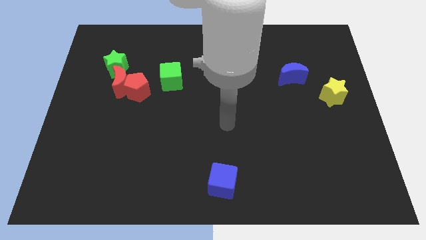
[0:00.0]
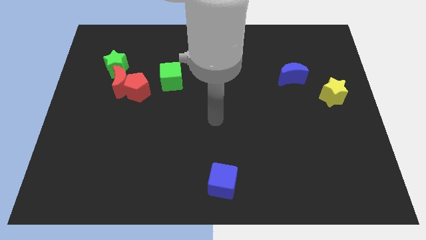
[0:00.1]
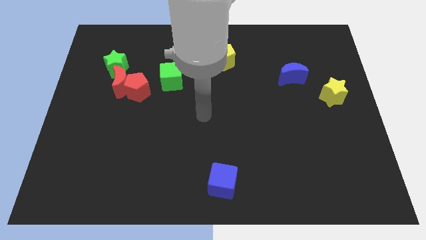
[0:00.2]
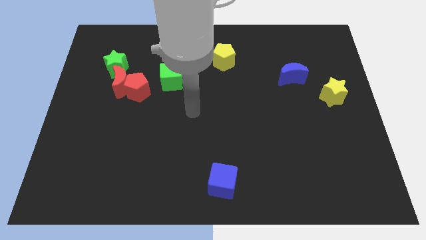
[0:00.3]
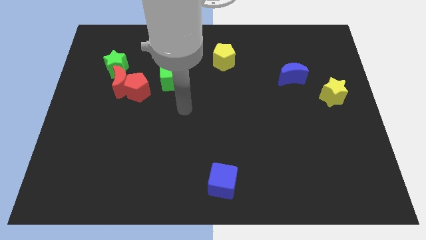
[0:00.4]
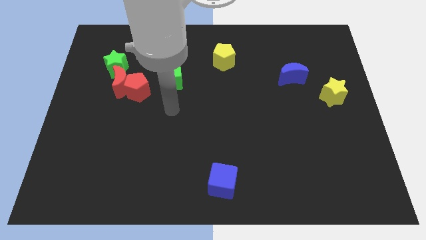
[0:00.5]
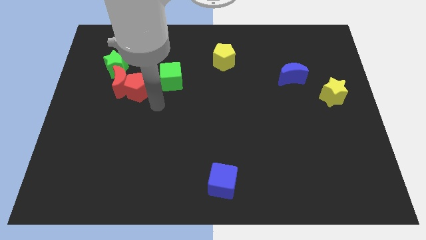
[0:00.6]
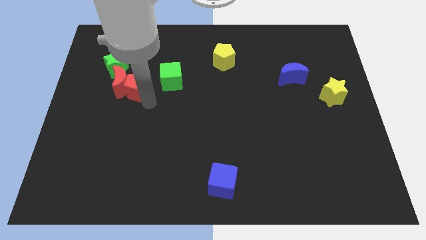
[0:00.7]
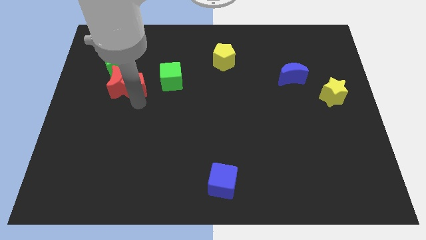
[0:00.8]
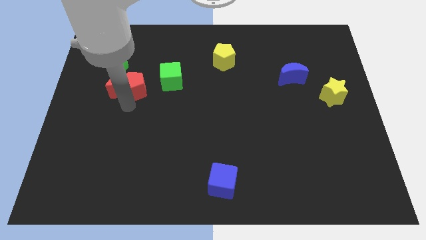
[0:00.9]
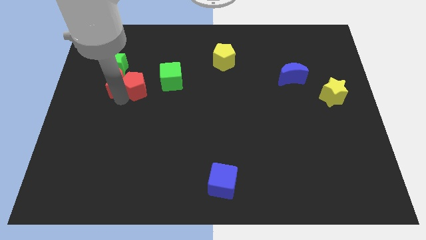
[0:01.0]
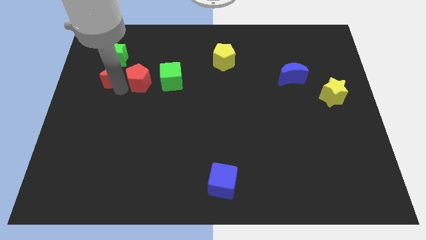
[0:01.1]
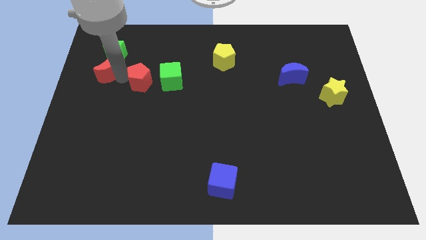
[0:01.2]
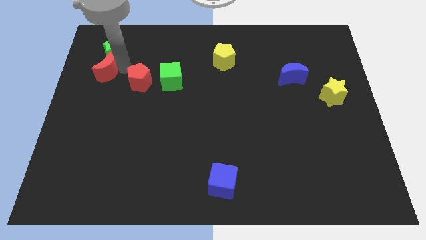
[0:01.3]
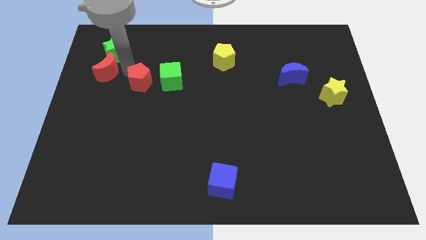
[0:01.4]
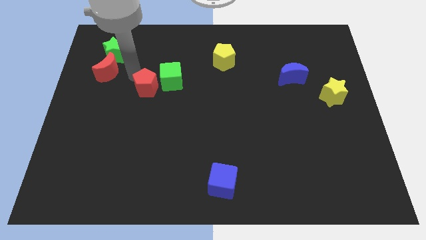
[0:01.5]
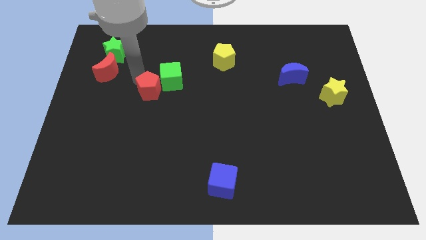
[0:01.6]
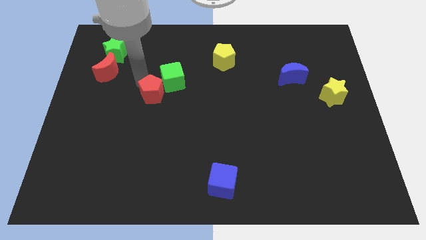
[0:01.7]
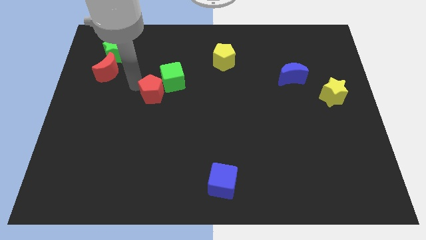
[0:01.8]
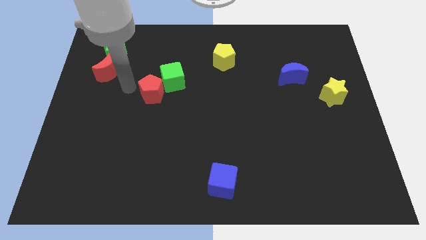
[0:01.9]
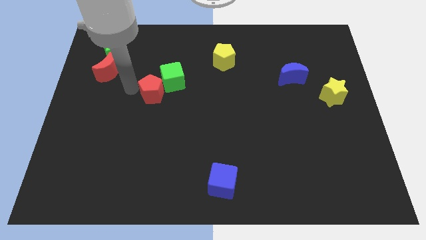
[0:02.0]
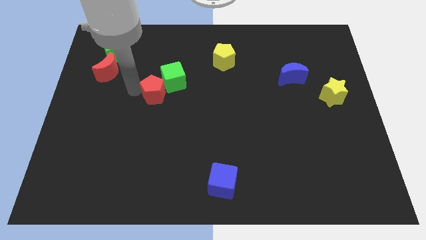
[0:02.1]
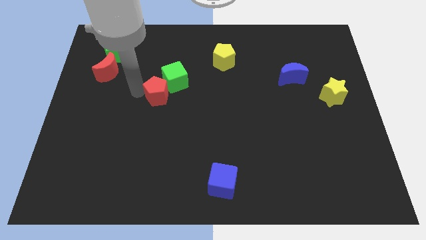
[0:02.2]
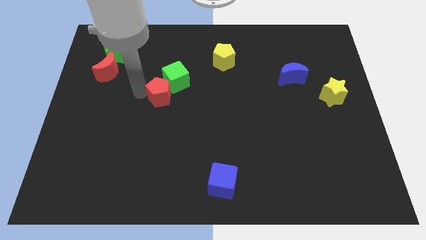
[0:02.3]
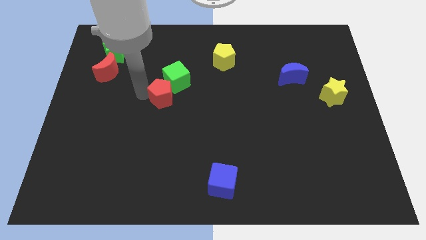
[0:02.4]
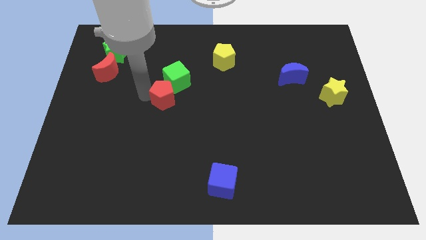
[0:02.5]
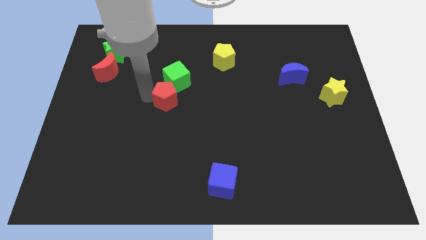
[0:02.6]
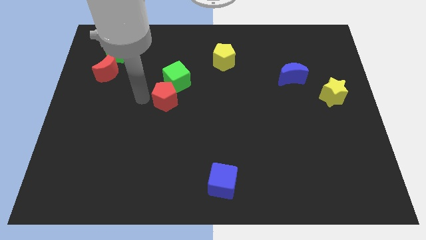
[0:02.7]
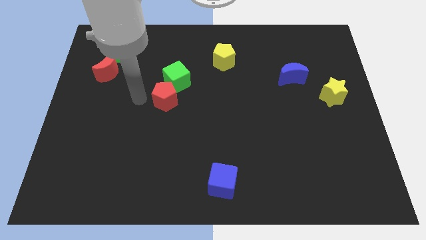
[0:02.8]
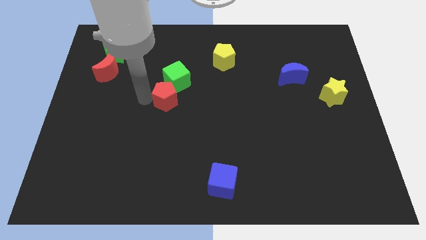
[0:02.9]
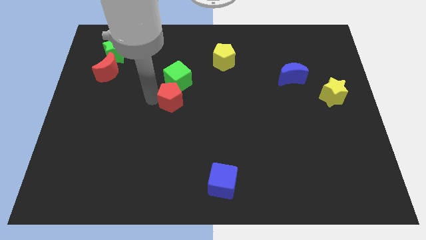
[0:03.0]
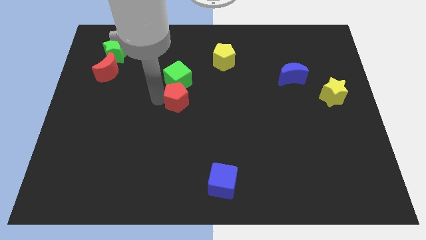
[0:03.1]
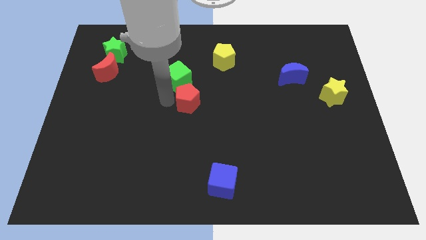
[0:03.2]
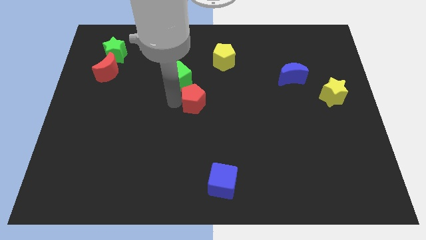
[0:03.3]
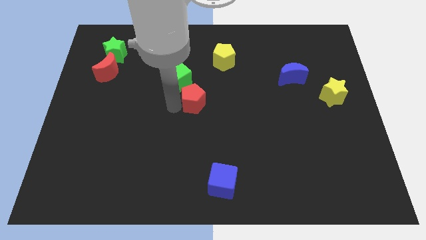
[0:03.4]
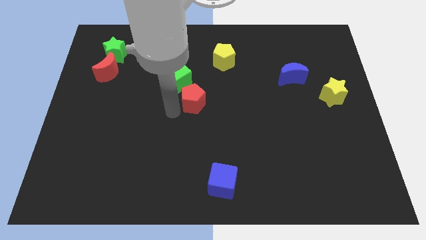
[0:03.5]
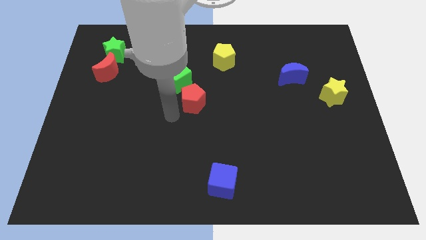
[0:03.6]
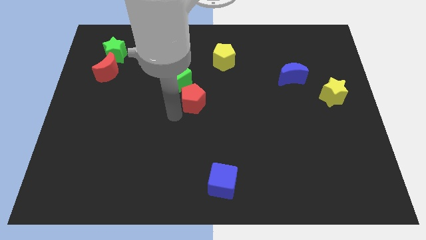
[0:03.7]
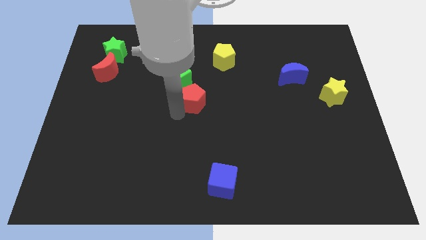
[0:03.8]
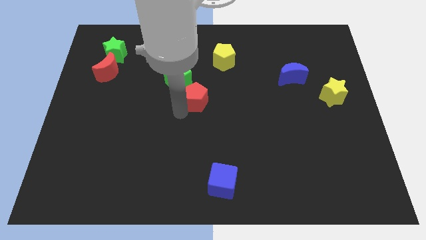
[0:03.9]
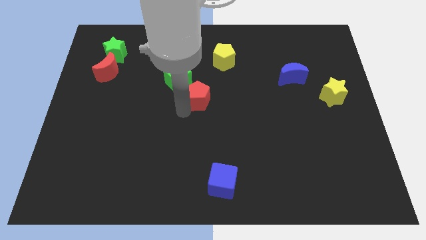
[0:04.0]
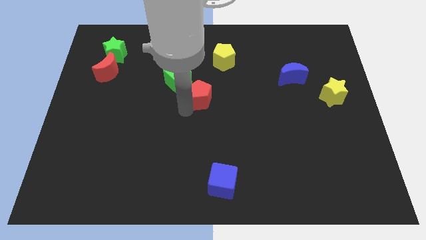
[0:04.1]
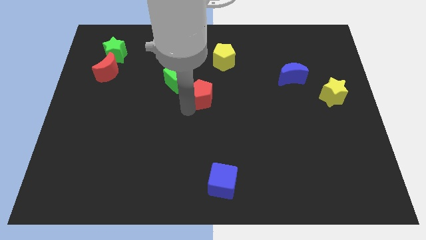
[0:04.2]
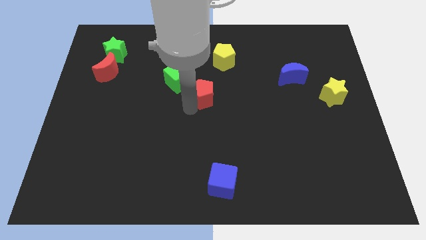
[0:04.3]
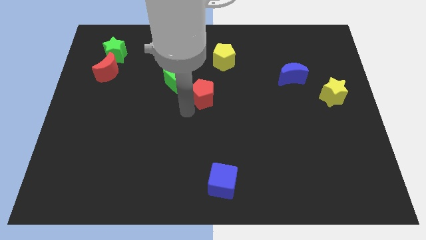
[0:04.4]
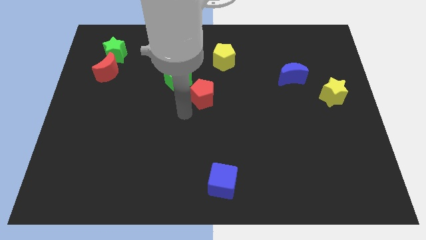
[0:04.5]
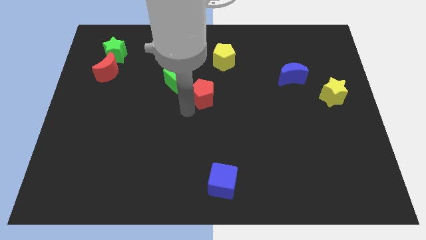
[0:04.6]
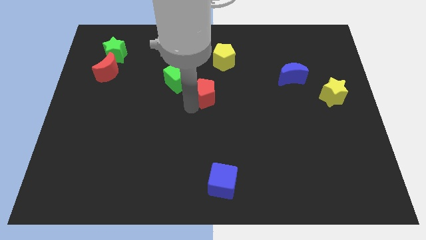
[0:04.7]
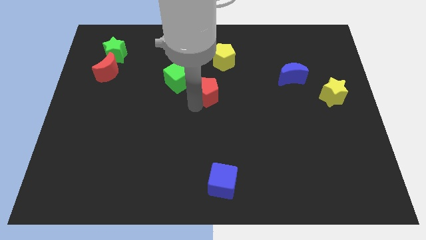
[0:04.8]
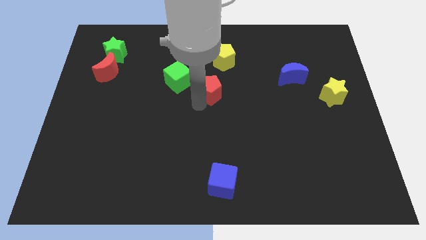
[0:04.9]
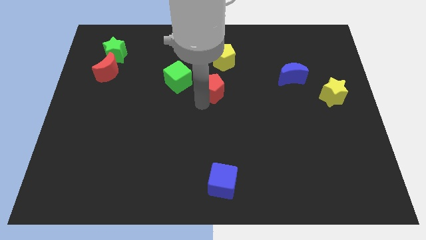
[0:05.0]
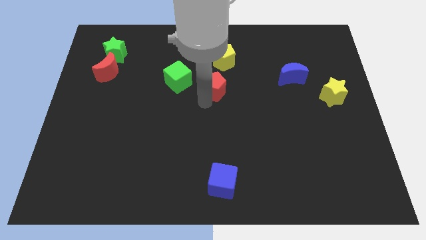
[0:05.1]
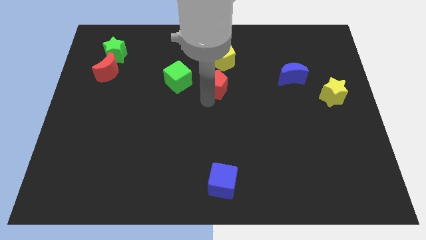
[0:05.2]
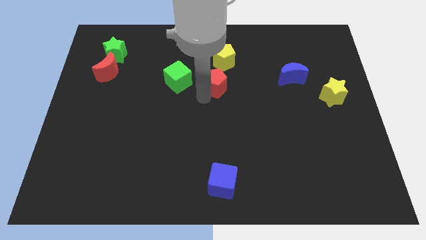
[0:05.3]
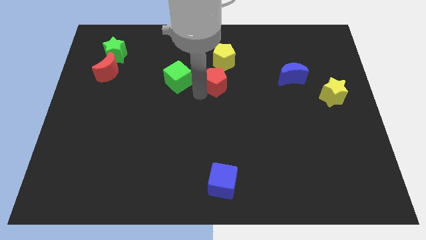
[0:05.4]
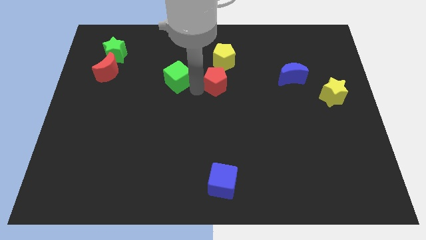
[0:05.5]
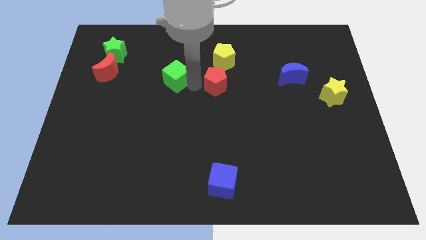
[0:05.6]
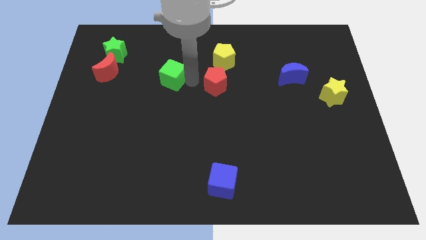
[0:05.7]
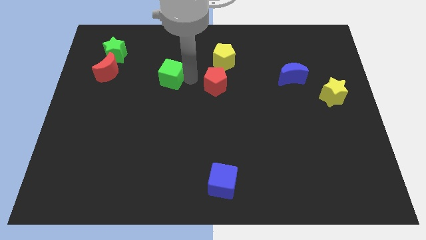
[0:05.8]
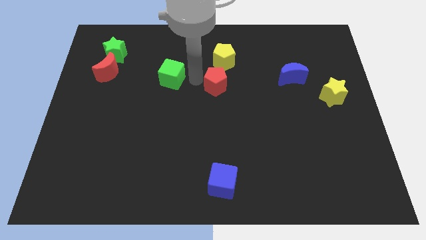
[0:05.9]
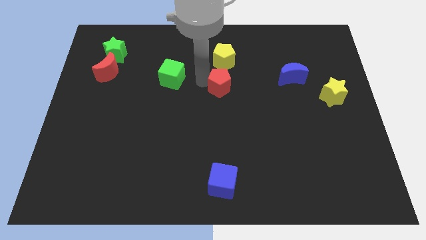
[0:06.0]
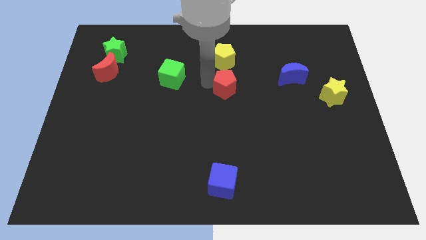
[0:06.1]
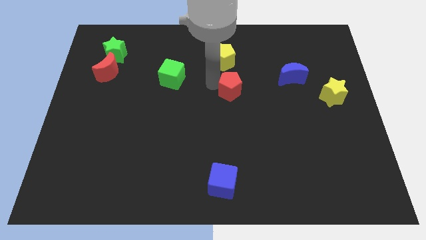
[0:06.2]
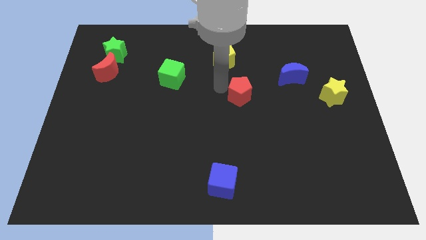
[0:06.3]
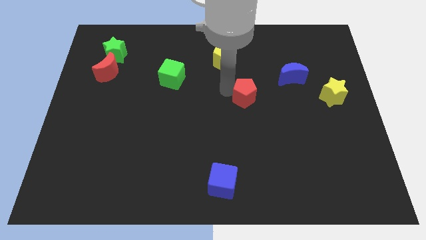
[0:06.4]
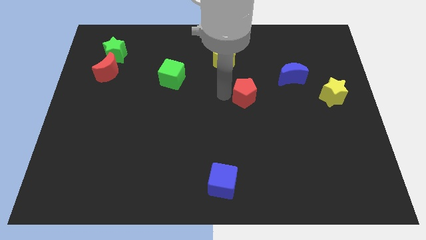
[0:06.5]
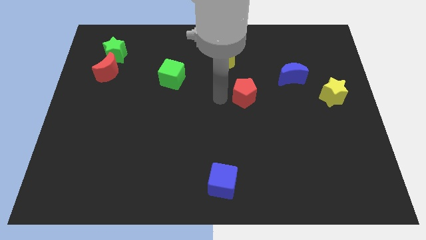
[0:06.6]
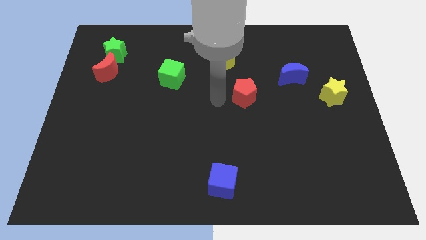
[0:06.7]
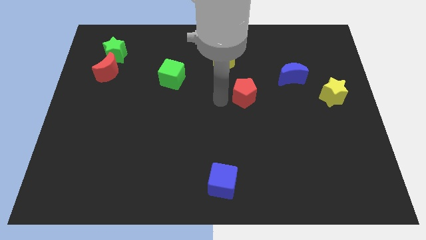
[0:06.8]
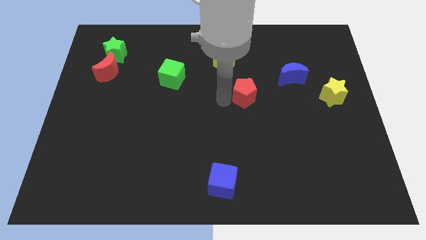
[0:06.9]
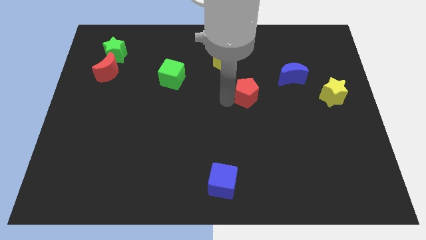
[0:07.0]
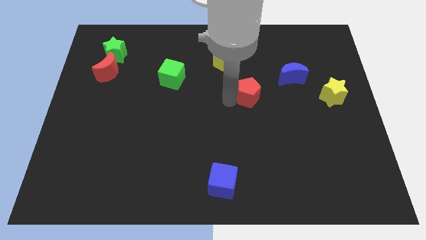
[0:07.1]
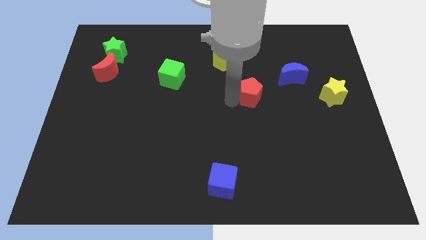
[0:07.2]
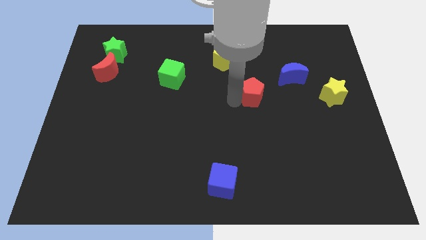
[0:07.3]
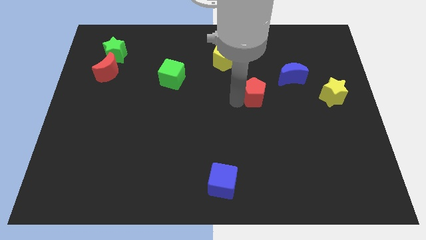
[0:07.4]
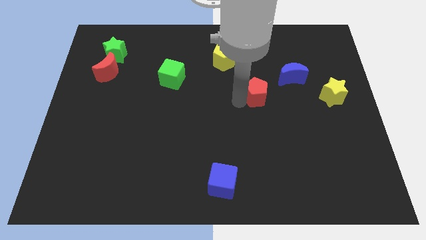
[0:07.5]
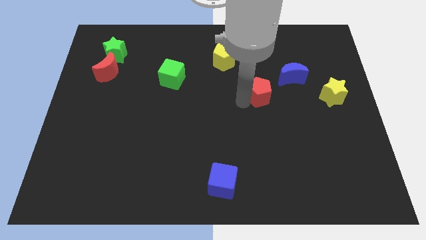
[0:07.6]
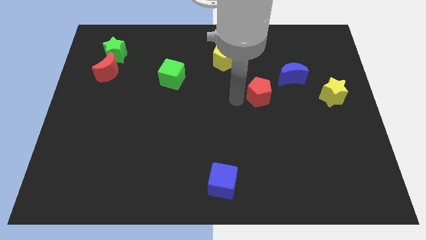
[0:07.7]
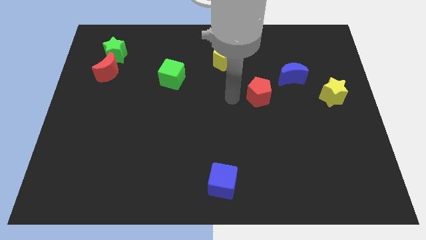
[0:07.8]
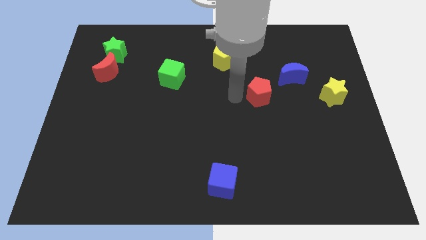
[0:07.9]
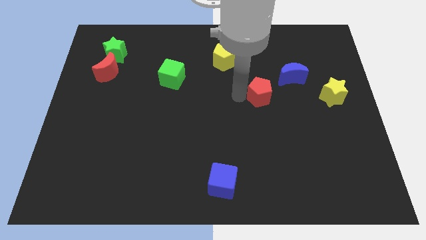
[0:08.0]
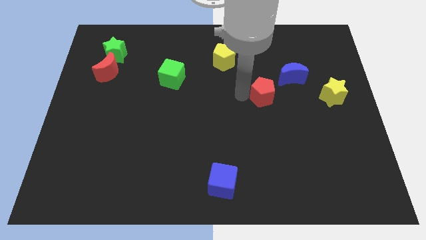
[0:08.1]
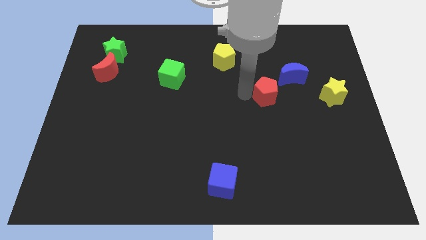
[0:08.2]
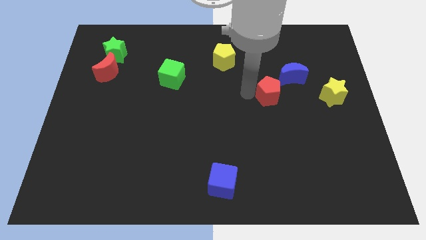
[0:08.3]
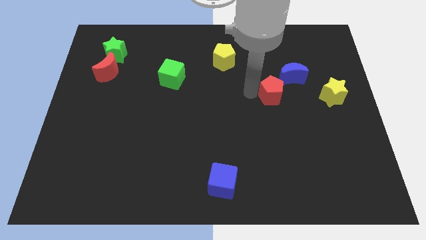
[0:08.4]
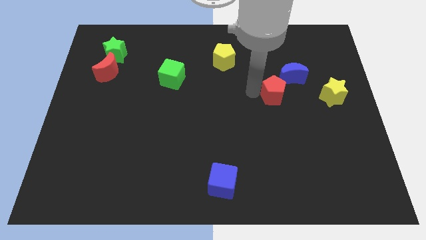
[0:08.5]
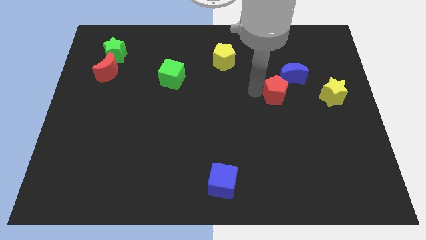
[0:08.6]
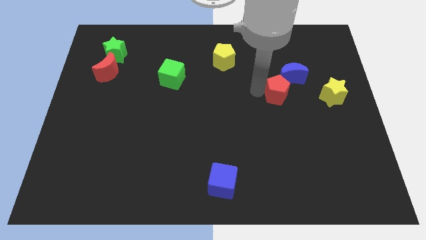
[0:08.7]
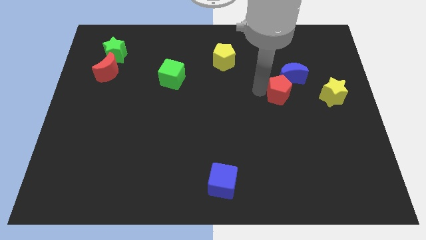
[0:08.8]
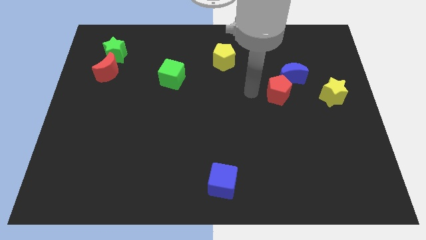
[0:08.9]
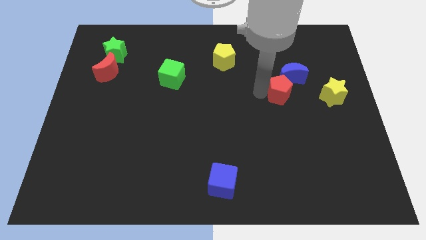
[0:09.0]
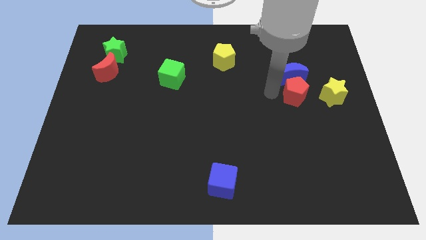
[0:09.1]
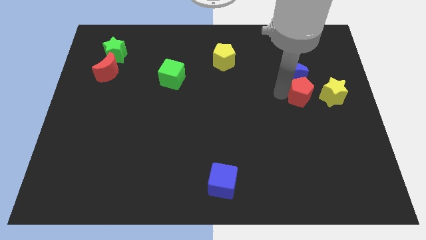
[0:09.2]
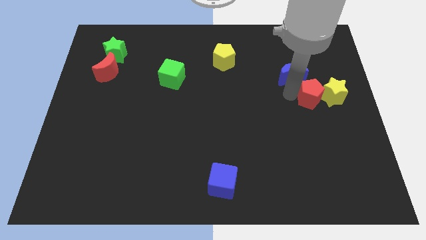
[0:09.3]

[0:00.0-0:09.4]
move the red pentagon to the yellow star
